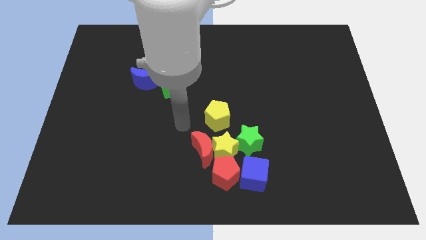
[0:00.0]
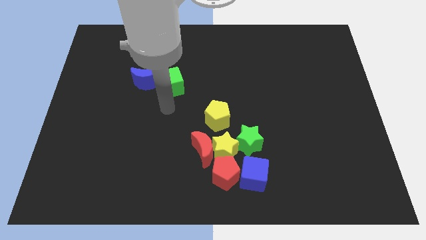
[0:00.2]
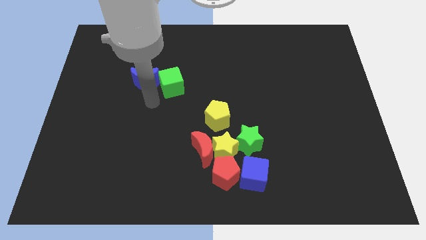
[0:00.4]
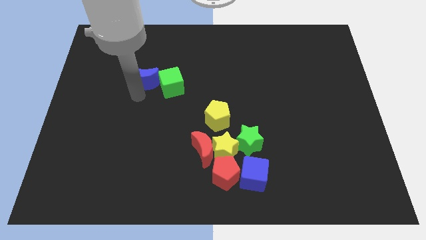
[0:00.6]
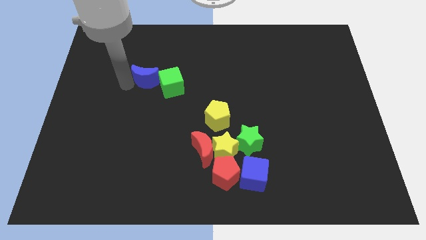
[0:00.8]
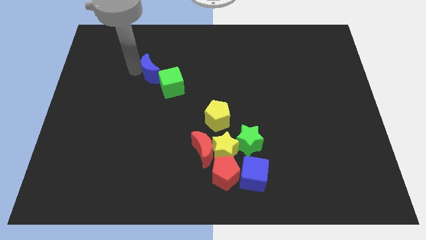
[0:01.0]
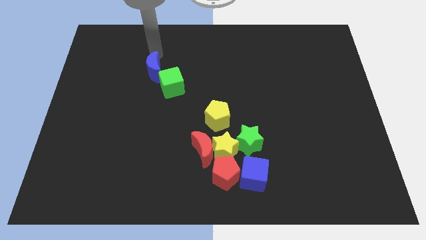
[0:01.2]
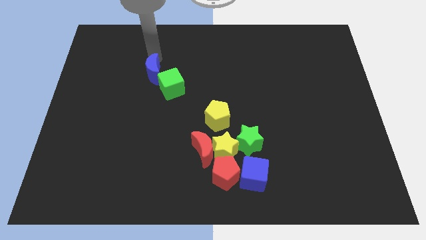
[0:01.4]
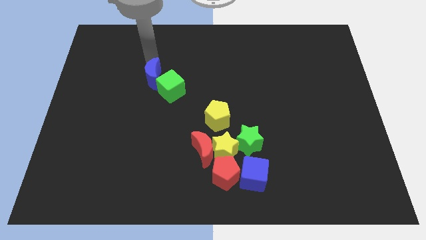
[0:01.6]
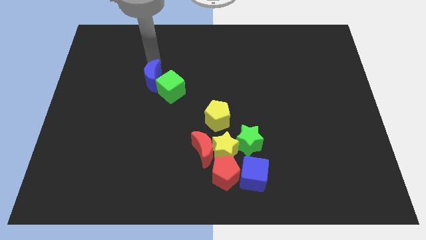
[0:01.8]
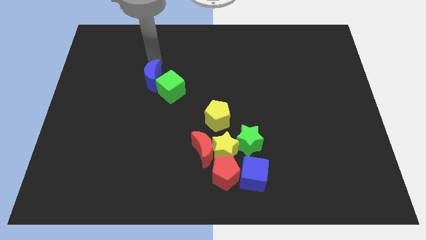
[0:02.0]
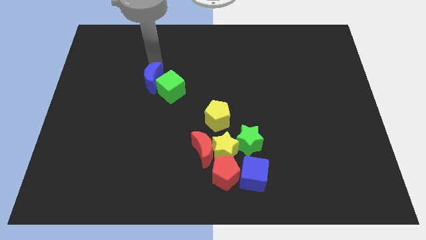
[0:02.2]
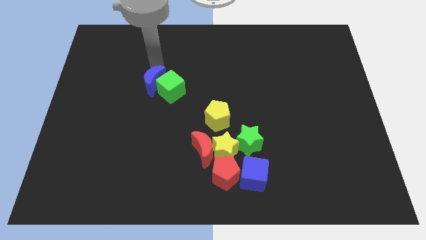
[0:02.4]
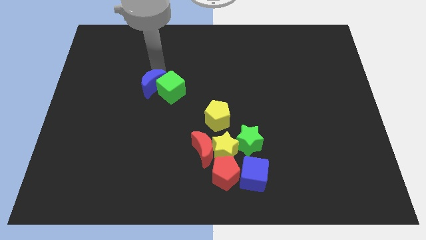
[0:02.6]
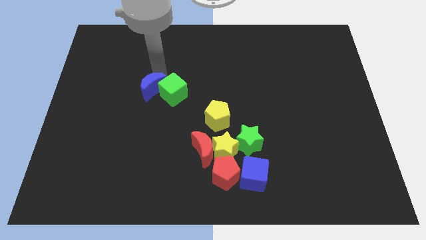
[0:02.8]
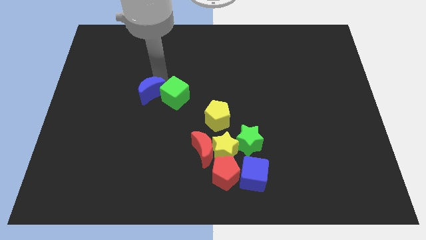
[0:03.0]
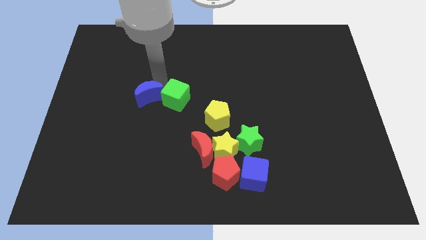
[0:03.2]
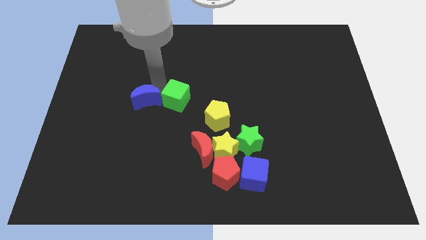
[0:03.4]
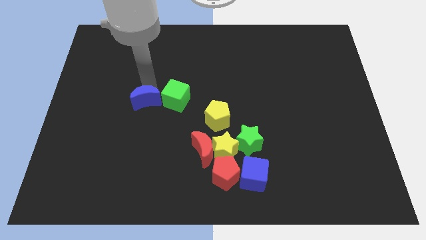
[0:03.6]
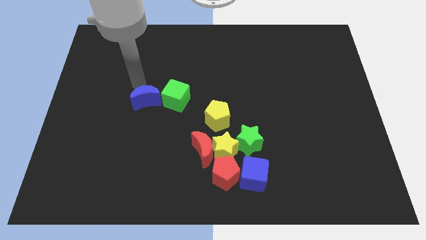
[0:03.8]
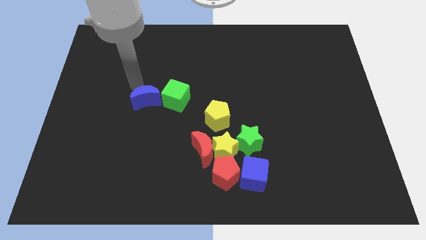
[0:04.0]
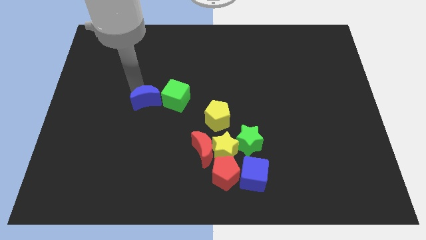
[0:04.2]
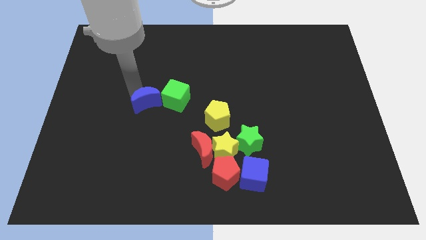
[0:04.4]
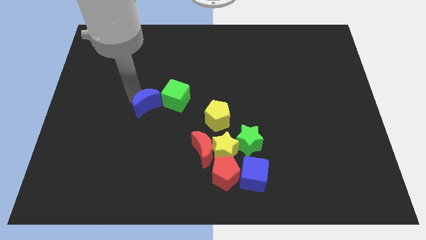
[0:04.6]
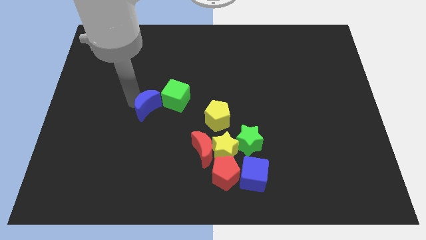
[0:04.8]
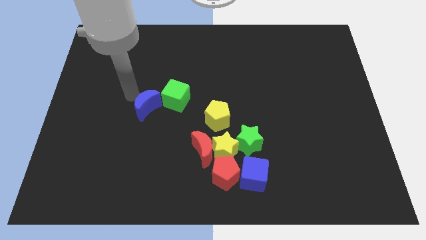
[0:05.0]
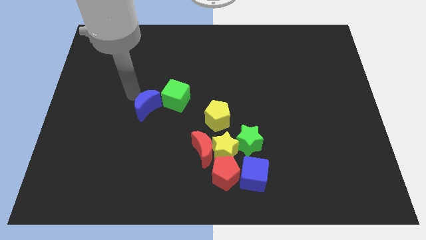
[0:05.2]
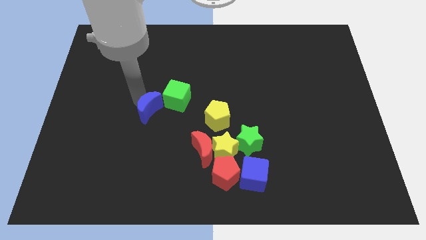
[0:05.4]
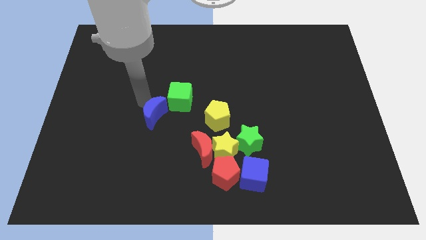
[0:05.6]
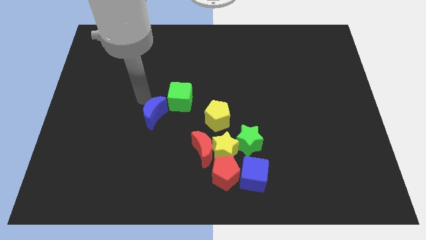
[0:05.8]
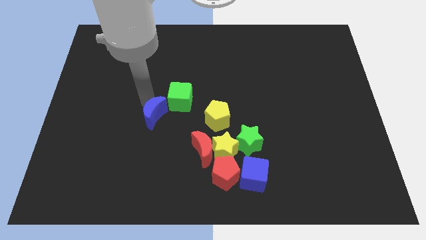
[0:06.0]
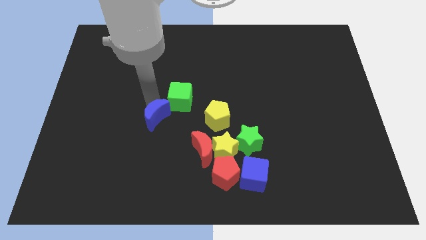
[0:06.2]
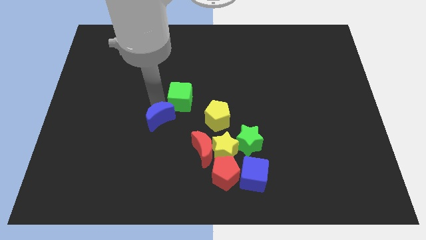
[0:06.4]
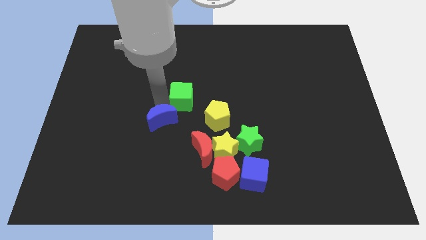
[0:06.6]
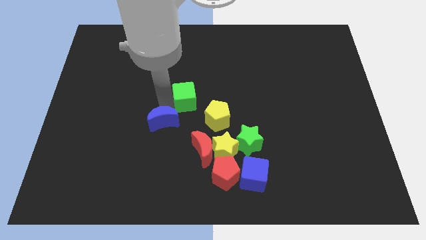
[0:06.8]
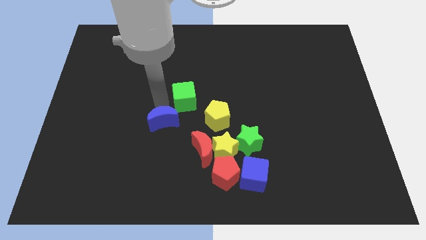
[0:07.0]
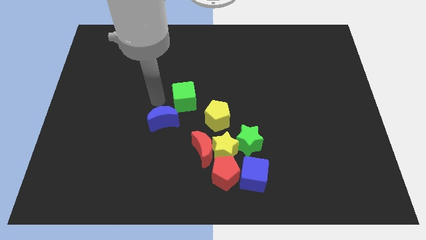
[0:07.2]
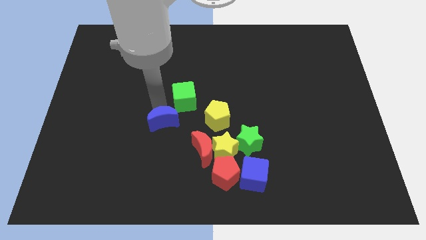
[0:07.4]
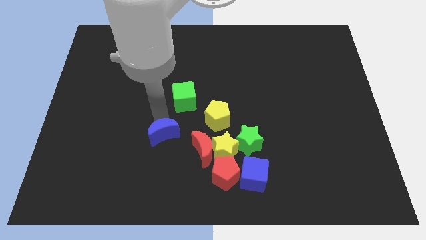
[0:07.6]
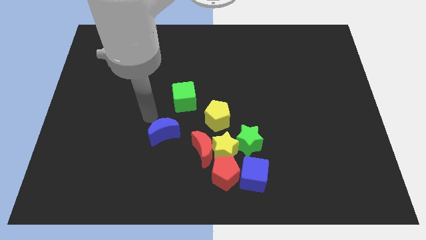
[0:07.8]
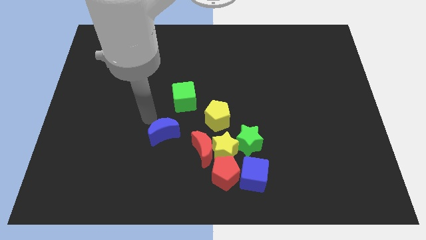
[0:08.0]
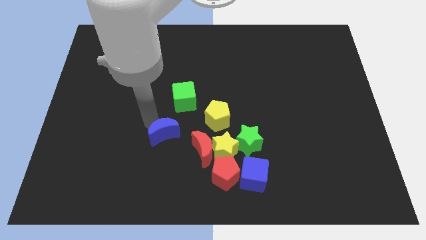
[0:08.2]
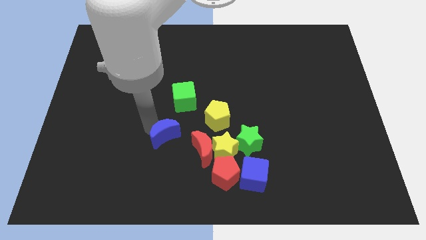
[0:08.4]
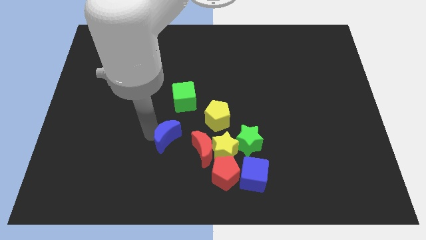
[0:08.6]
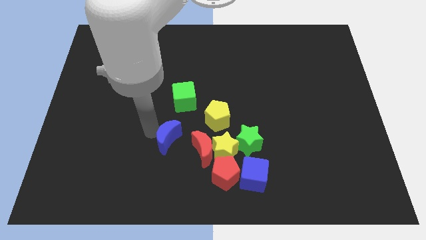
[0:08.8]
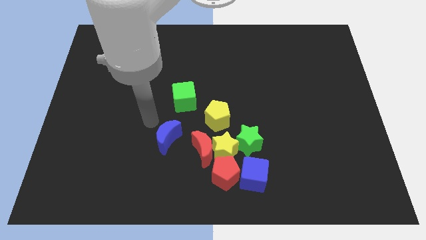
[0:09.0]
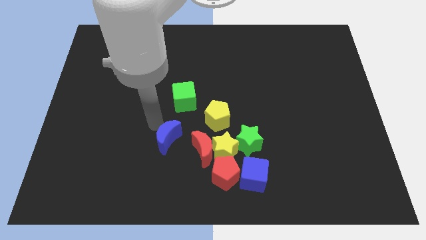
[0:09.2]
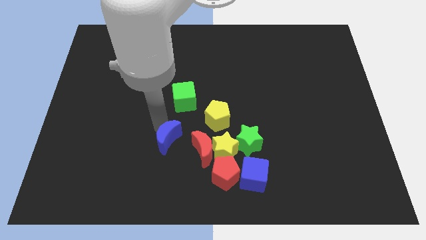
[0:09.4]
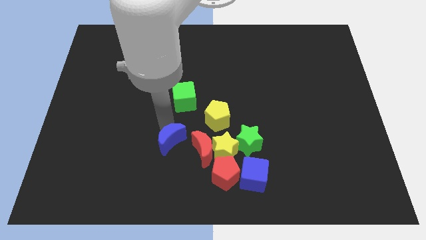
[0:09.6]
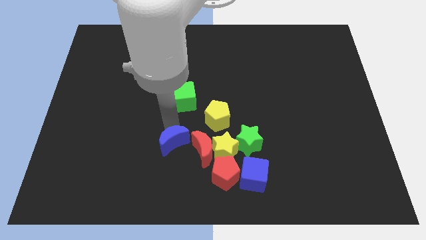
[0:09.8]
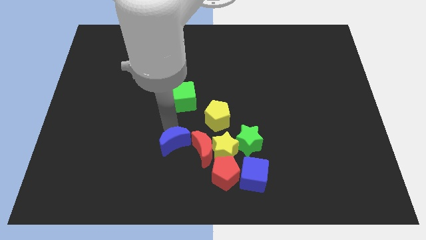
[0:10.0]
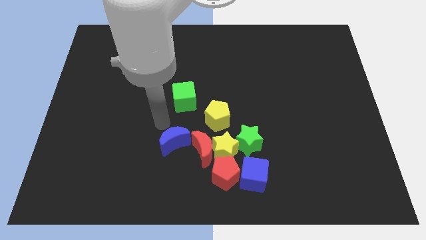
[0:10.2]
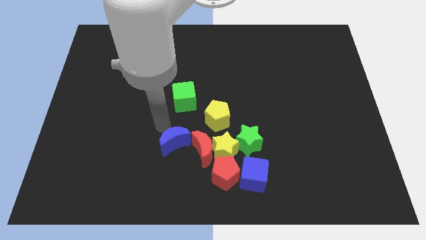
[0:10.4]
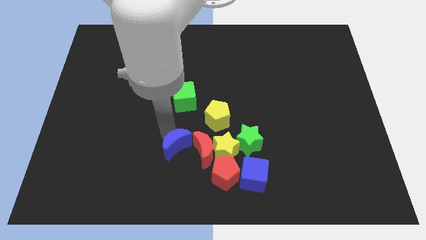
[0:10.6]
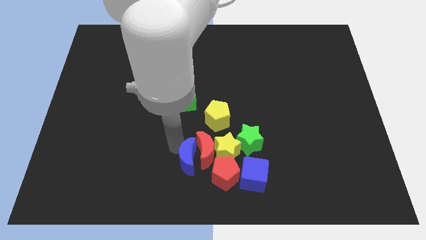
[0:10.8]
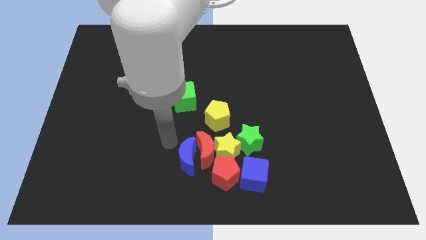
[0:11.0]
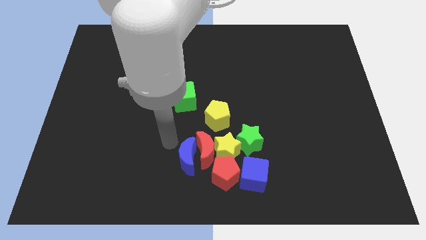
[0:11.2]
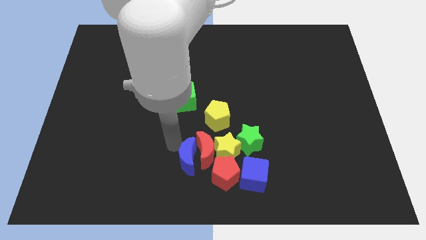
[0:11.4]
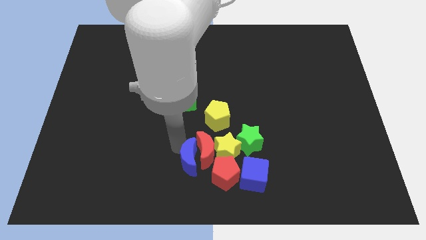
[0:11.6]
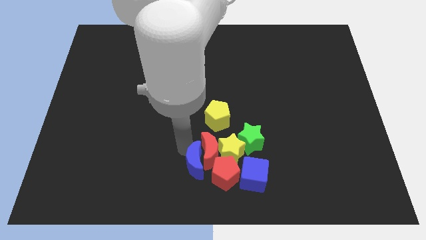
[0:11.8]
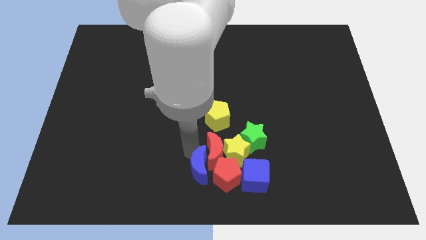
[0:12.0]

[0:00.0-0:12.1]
push the blue moon to the red pentagon
